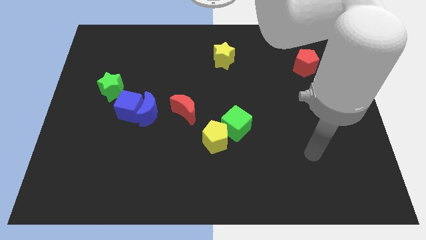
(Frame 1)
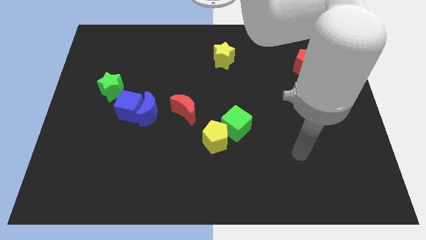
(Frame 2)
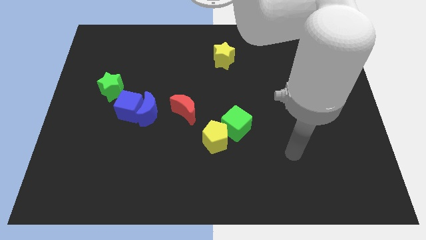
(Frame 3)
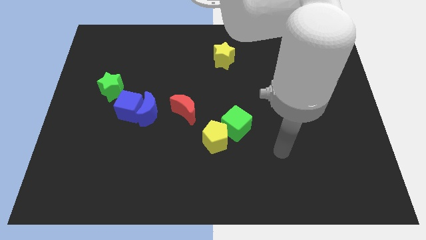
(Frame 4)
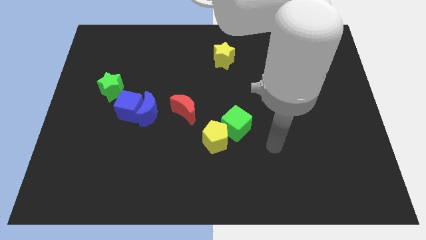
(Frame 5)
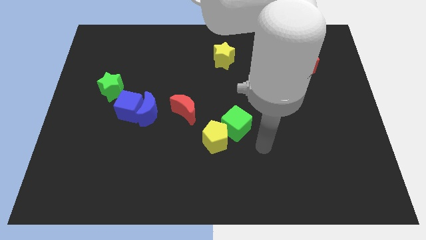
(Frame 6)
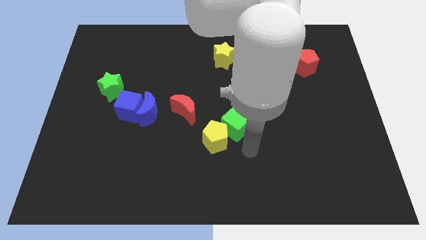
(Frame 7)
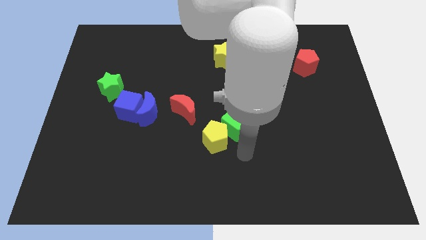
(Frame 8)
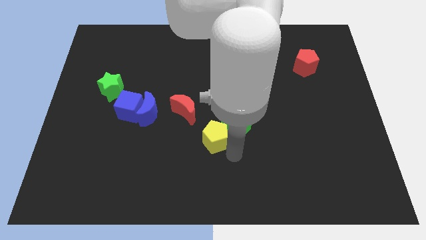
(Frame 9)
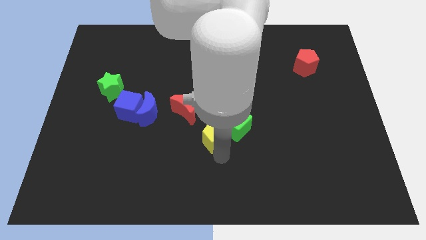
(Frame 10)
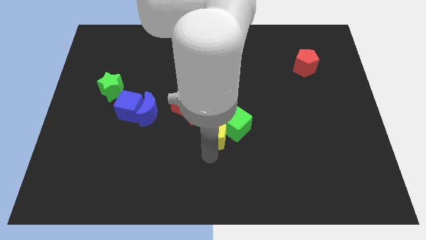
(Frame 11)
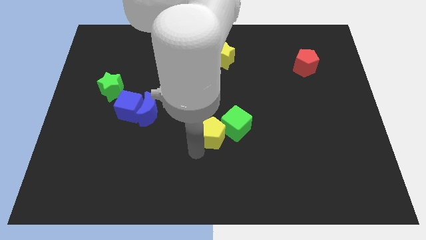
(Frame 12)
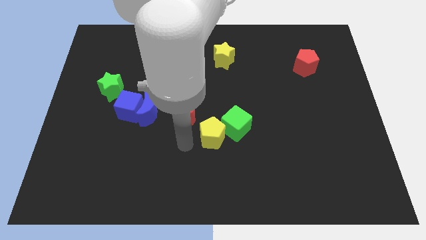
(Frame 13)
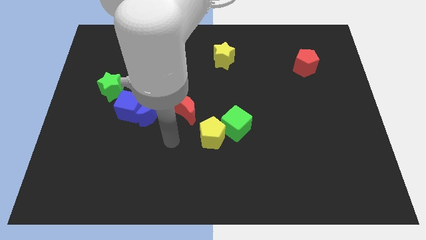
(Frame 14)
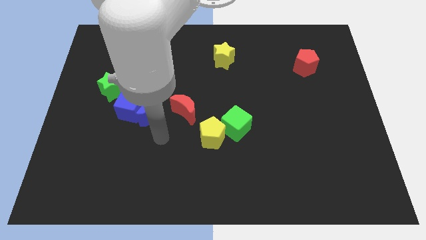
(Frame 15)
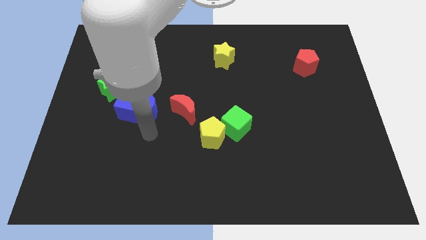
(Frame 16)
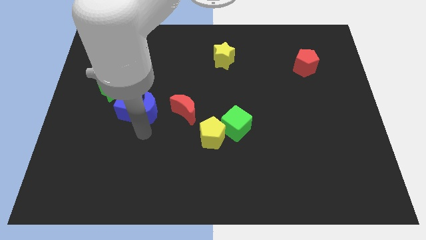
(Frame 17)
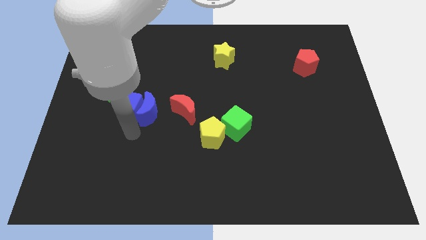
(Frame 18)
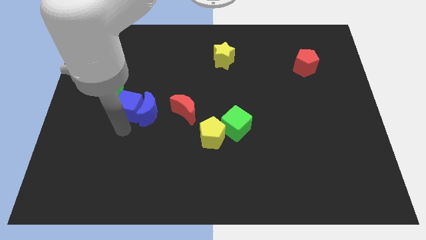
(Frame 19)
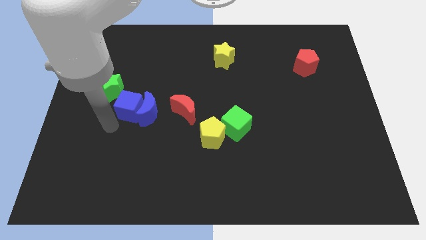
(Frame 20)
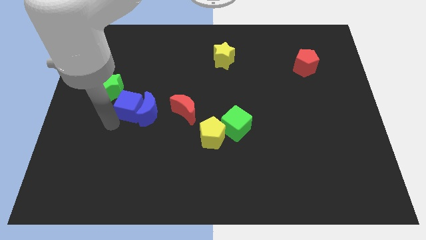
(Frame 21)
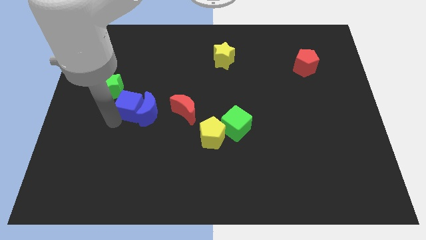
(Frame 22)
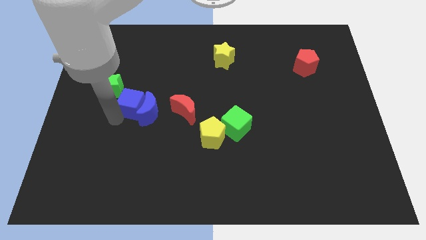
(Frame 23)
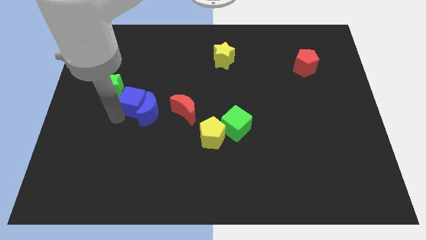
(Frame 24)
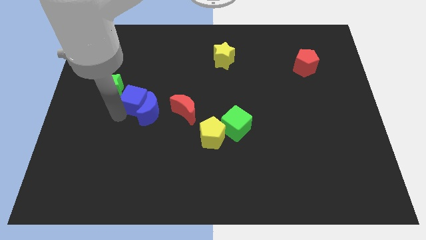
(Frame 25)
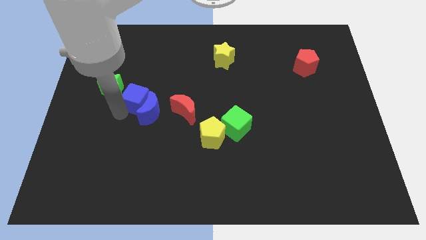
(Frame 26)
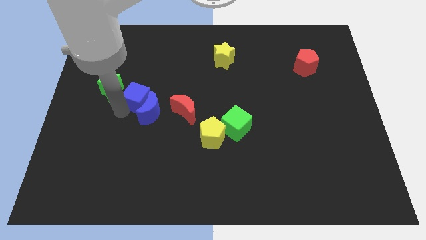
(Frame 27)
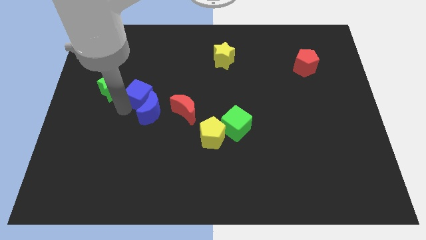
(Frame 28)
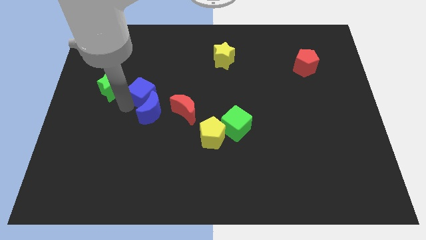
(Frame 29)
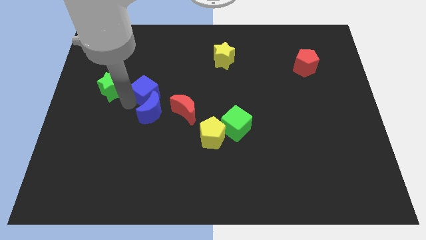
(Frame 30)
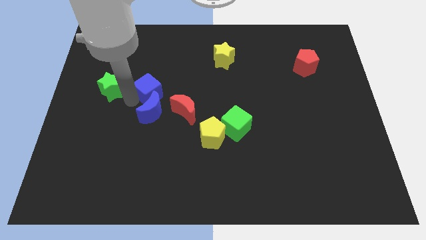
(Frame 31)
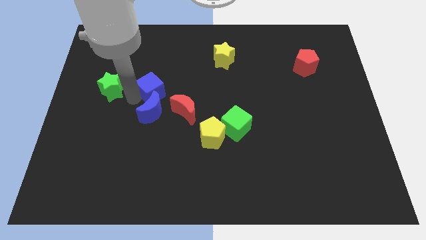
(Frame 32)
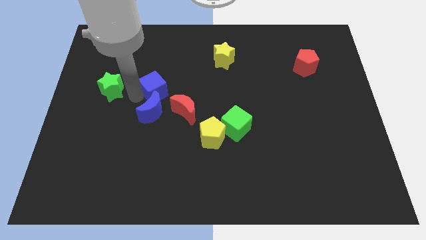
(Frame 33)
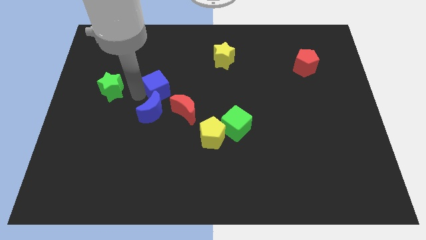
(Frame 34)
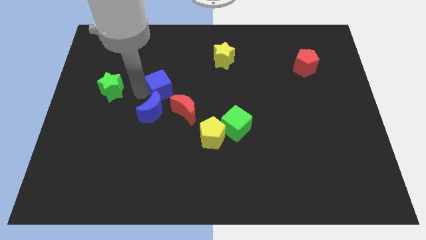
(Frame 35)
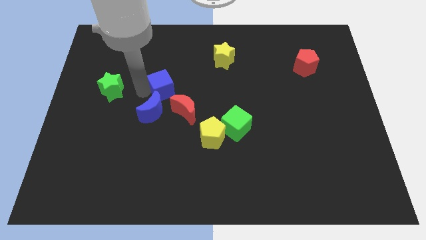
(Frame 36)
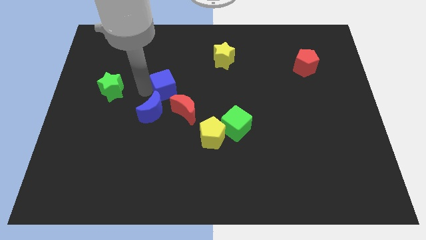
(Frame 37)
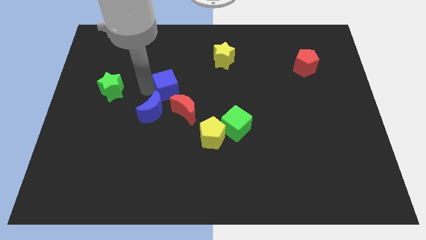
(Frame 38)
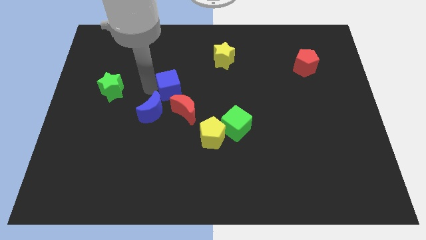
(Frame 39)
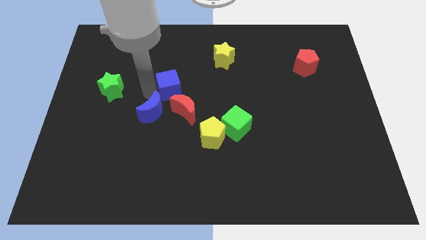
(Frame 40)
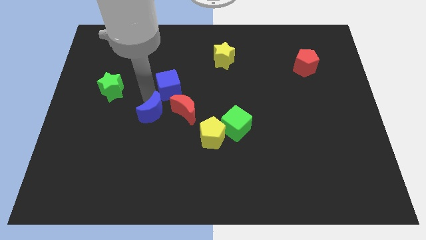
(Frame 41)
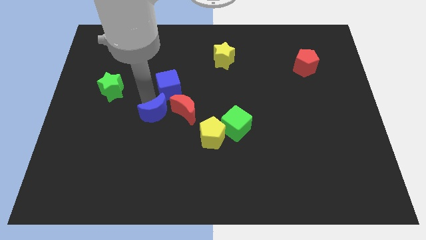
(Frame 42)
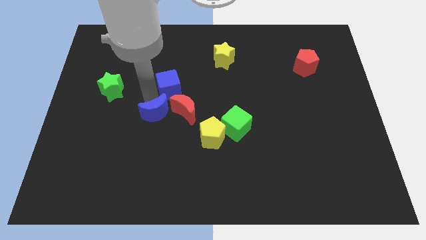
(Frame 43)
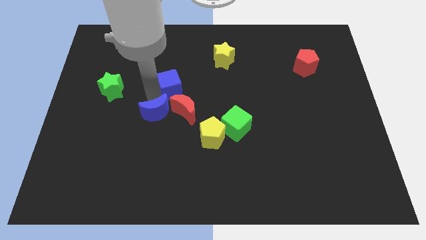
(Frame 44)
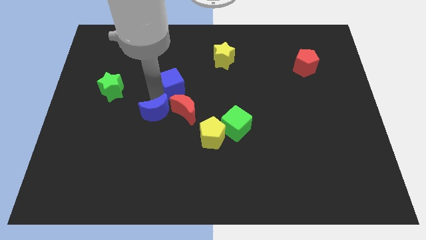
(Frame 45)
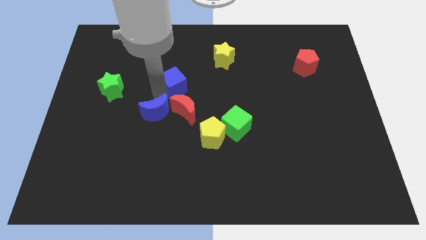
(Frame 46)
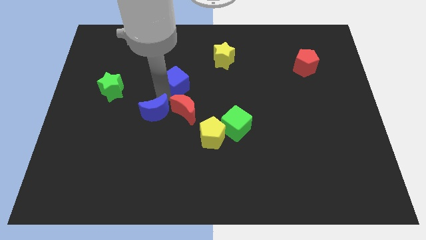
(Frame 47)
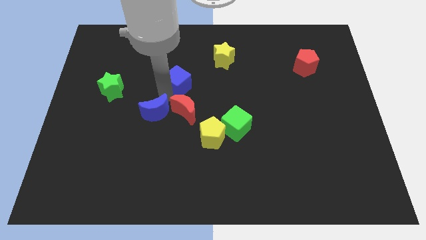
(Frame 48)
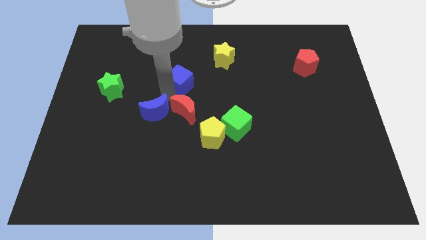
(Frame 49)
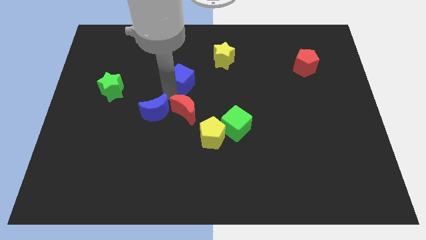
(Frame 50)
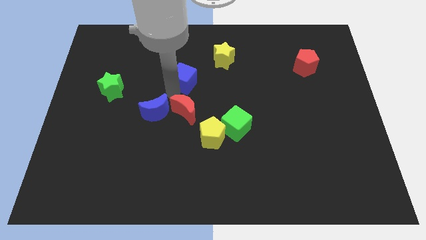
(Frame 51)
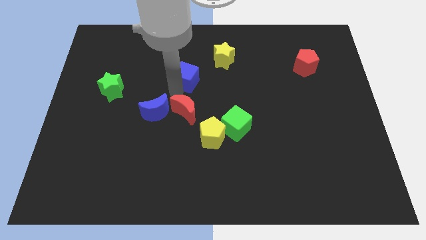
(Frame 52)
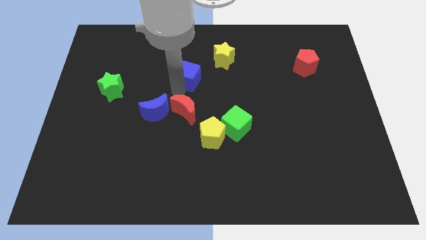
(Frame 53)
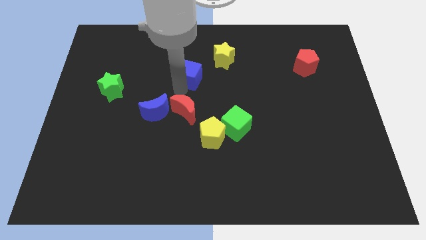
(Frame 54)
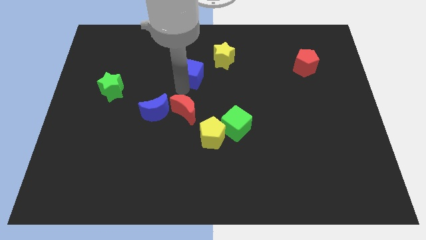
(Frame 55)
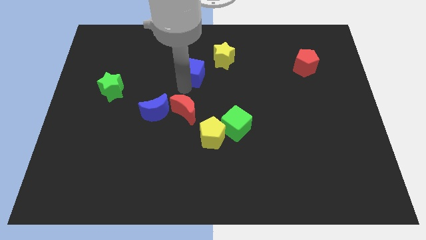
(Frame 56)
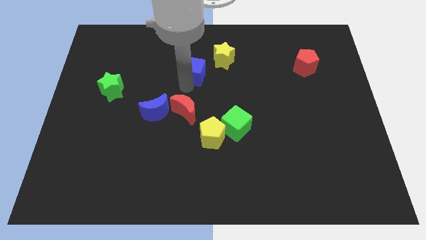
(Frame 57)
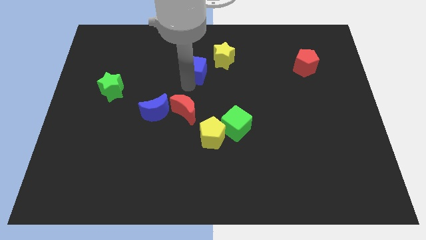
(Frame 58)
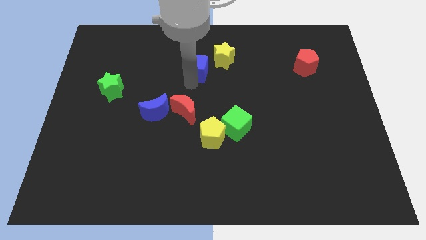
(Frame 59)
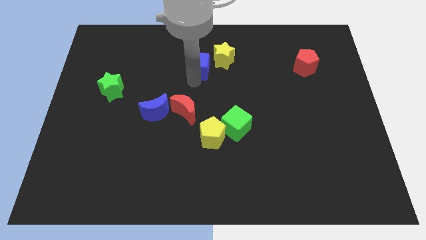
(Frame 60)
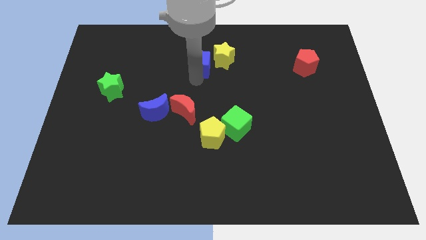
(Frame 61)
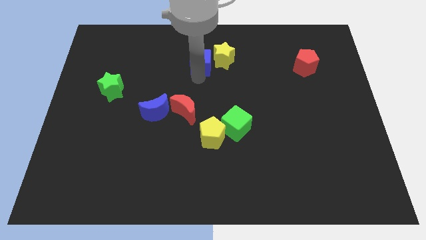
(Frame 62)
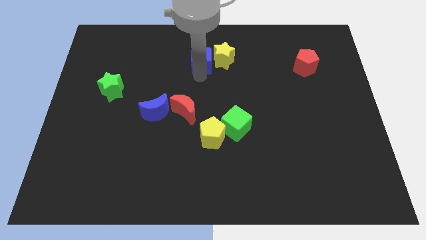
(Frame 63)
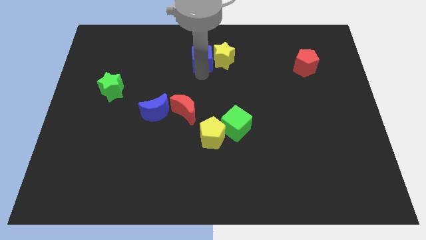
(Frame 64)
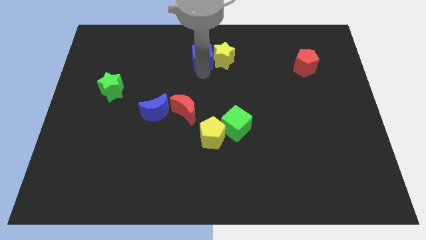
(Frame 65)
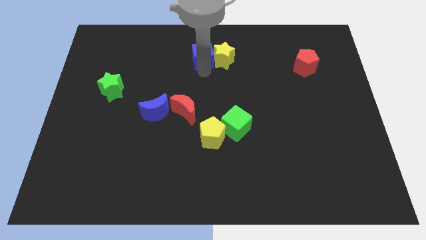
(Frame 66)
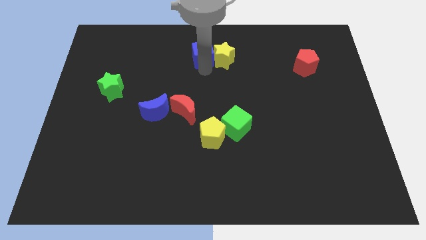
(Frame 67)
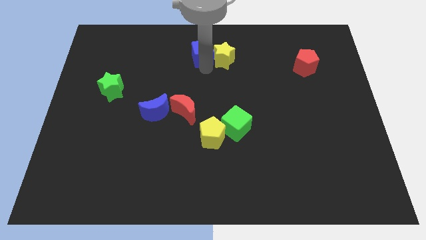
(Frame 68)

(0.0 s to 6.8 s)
slide the blue cube to the towards your base
